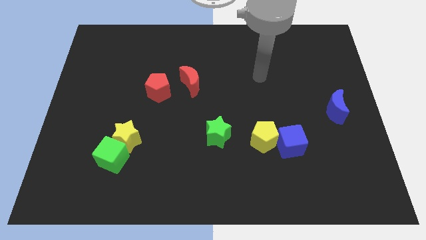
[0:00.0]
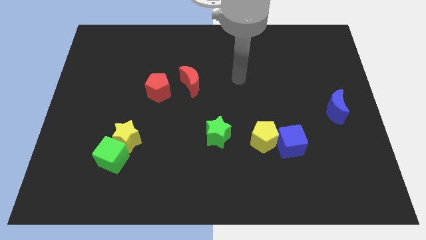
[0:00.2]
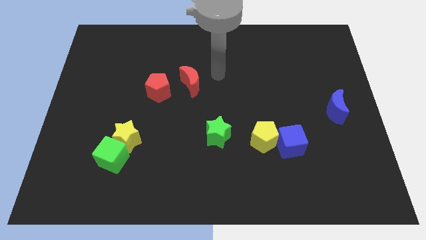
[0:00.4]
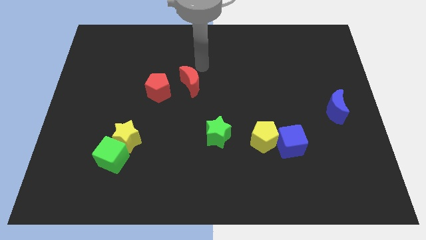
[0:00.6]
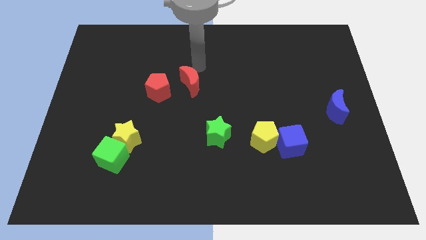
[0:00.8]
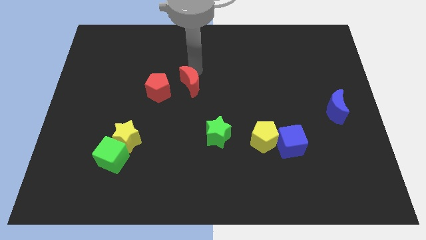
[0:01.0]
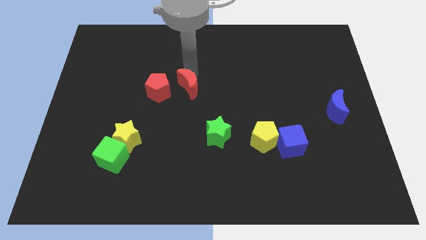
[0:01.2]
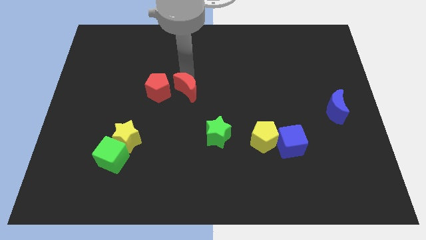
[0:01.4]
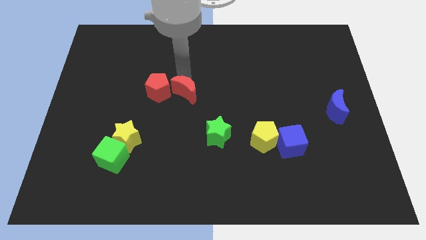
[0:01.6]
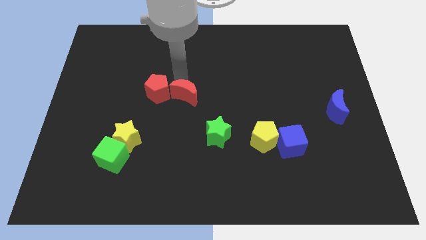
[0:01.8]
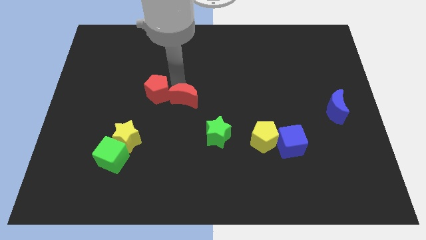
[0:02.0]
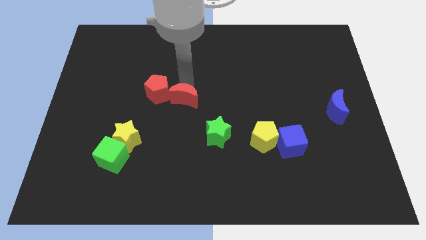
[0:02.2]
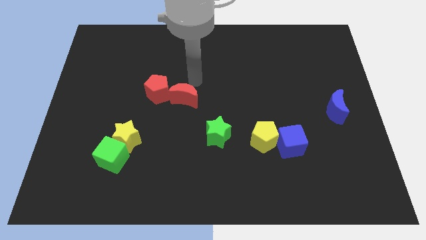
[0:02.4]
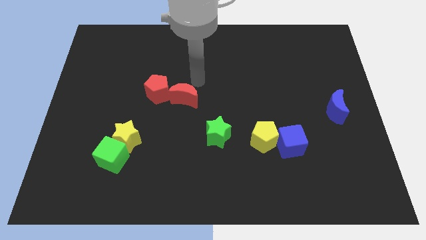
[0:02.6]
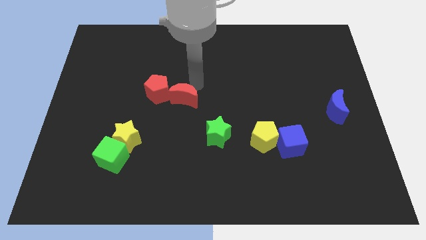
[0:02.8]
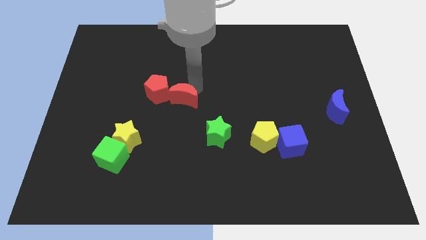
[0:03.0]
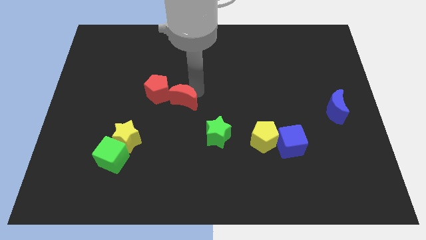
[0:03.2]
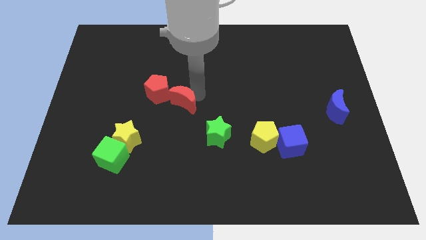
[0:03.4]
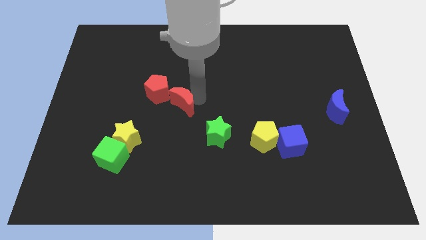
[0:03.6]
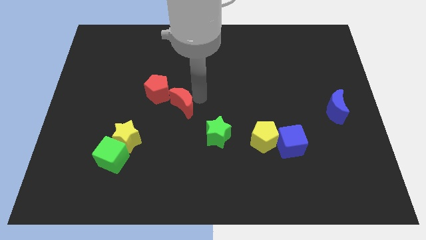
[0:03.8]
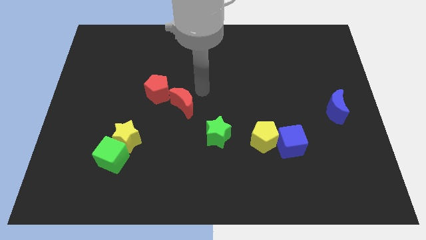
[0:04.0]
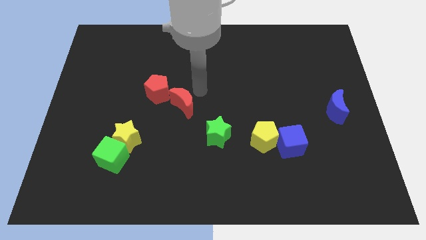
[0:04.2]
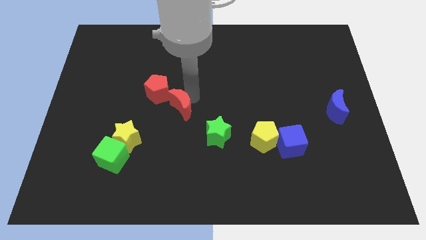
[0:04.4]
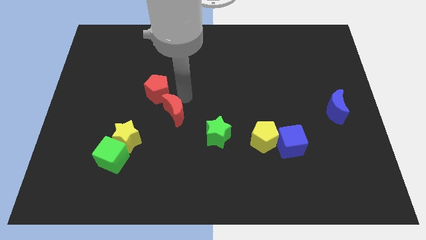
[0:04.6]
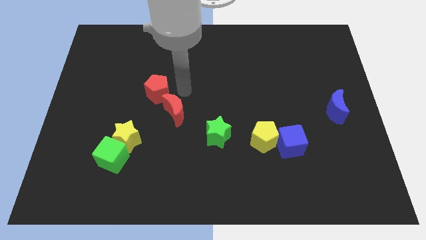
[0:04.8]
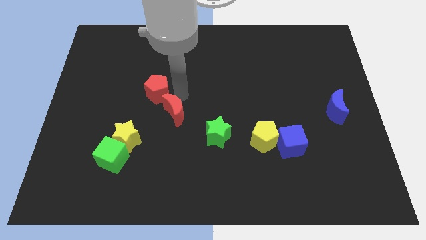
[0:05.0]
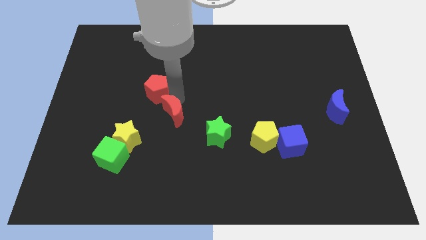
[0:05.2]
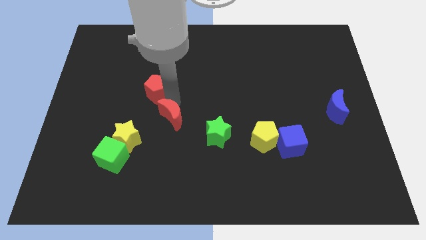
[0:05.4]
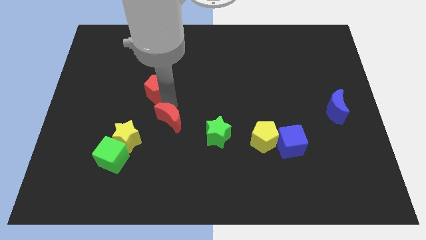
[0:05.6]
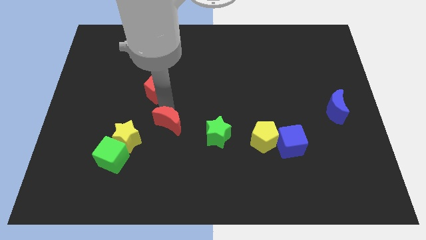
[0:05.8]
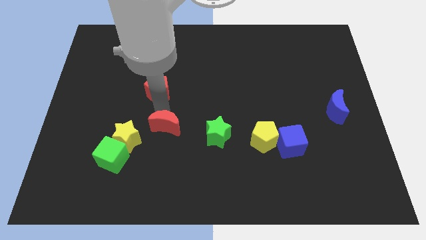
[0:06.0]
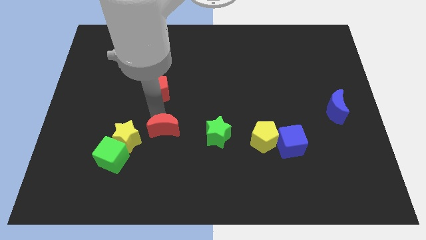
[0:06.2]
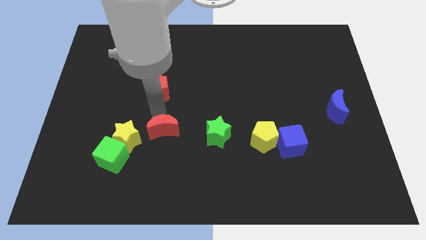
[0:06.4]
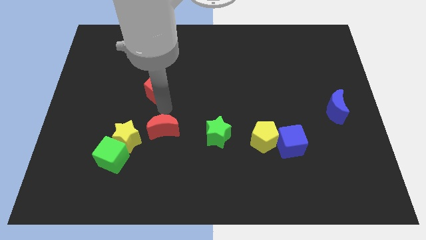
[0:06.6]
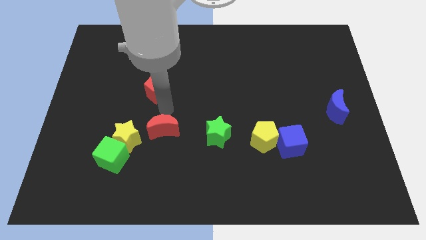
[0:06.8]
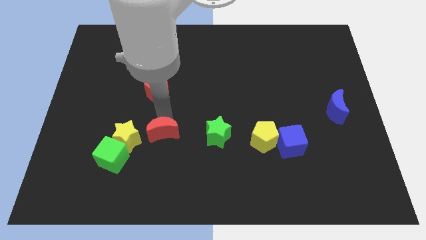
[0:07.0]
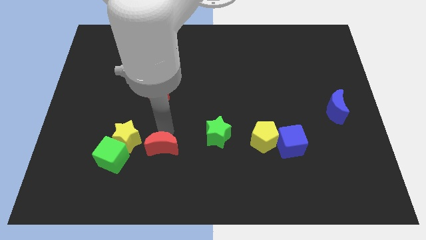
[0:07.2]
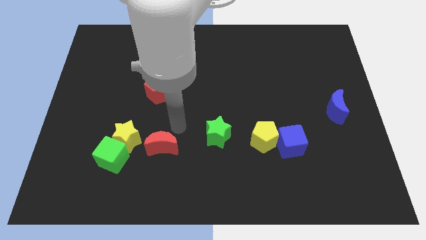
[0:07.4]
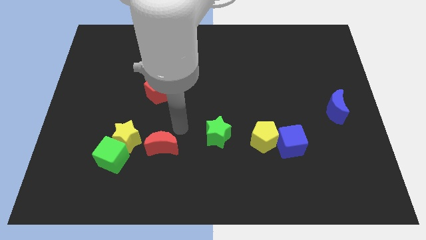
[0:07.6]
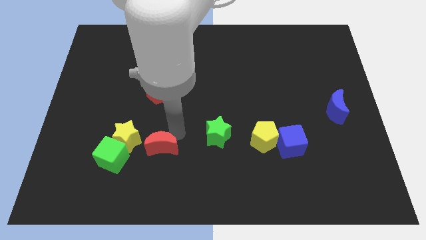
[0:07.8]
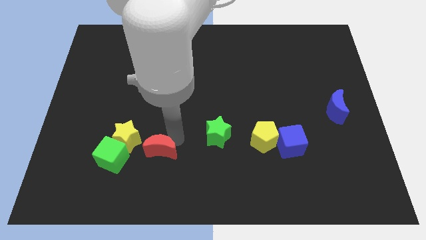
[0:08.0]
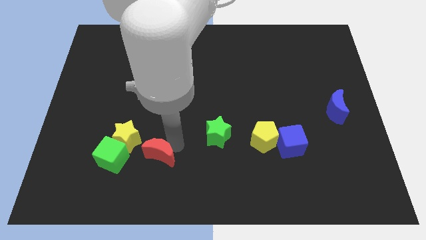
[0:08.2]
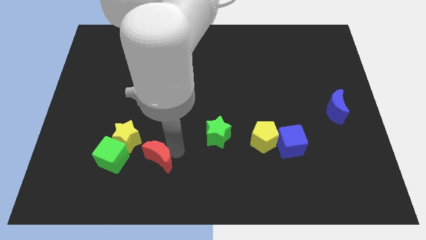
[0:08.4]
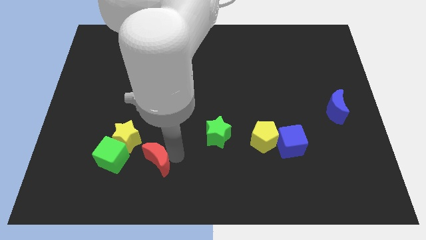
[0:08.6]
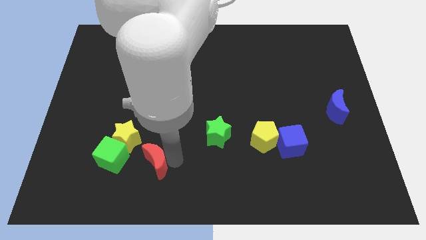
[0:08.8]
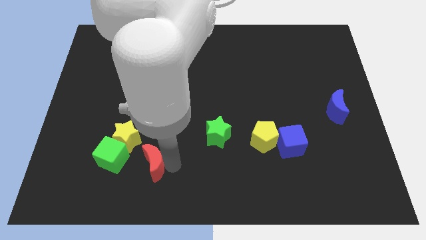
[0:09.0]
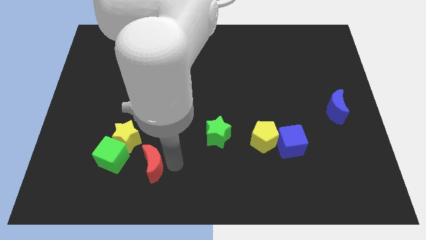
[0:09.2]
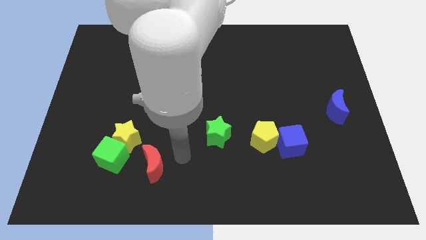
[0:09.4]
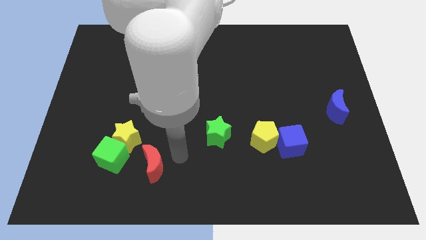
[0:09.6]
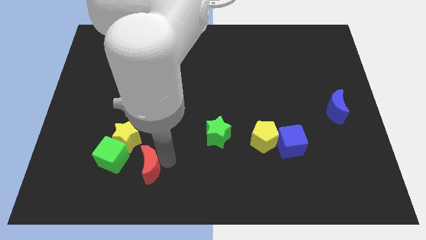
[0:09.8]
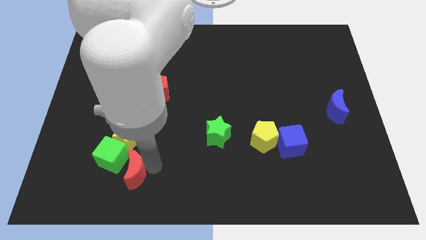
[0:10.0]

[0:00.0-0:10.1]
slide the red moon downwards and to the left

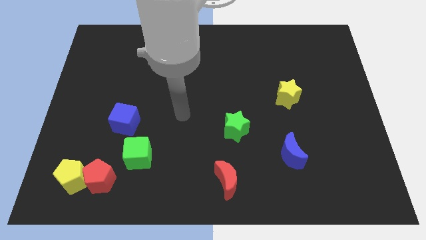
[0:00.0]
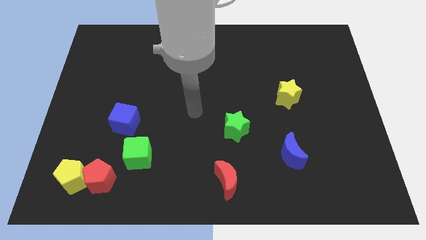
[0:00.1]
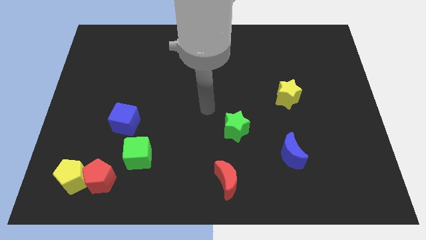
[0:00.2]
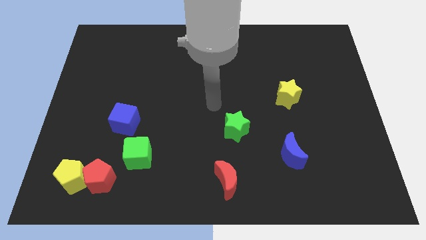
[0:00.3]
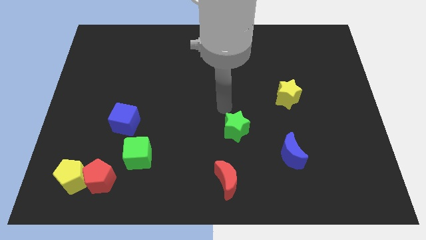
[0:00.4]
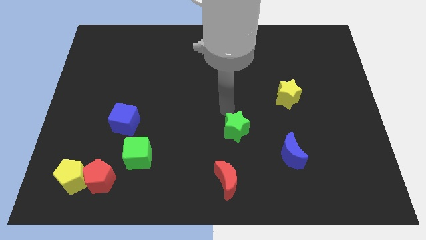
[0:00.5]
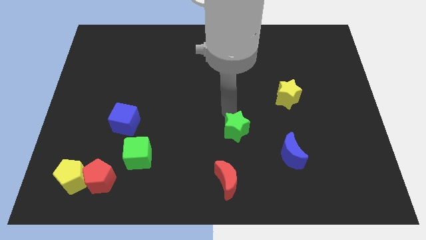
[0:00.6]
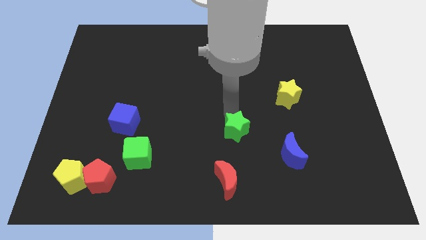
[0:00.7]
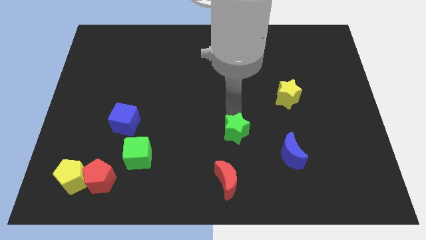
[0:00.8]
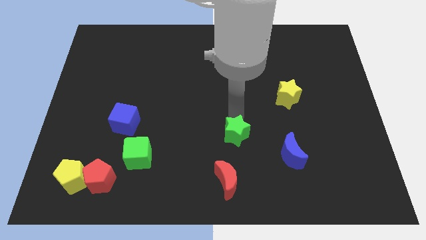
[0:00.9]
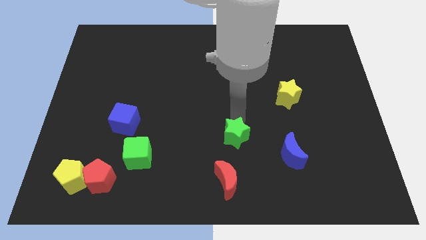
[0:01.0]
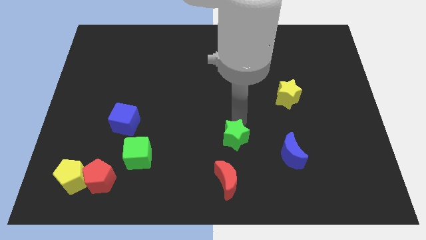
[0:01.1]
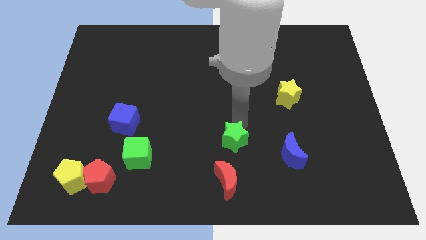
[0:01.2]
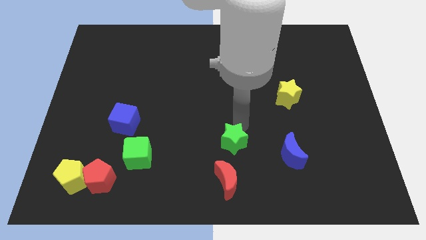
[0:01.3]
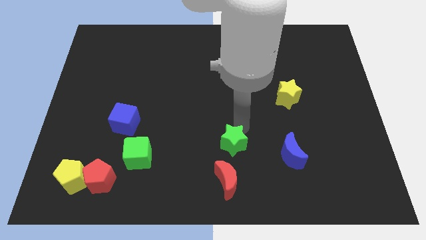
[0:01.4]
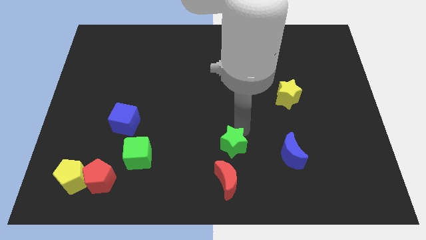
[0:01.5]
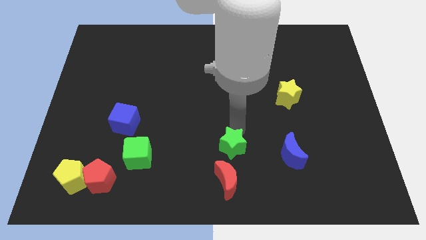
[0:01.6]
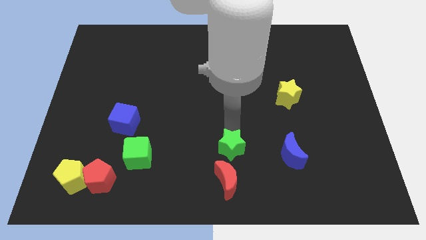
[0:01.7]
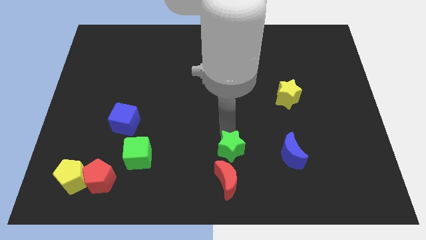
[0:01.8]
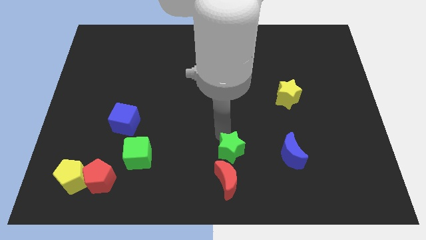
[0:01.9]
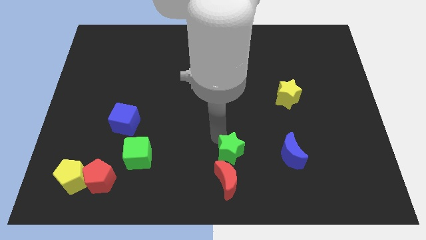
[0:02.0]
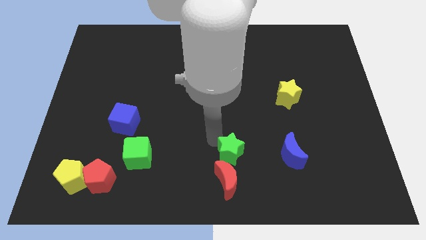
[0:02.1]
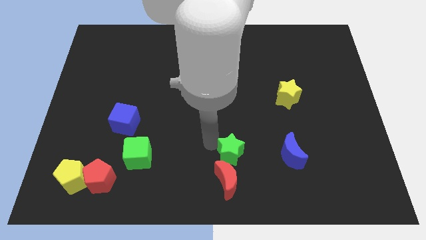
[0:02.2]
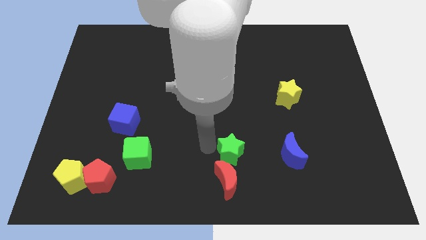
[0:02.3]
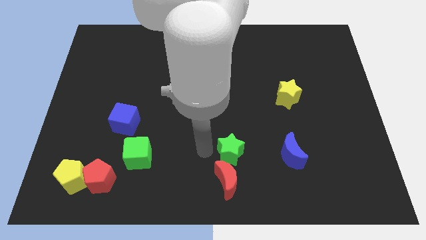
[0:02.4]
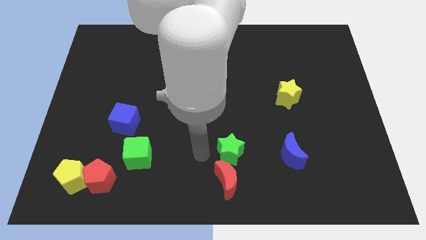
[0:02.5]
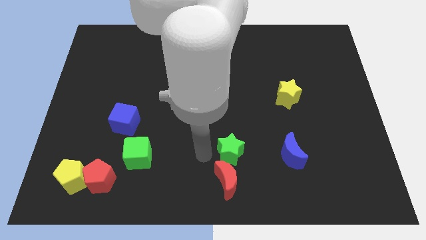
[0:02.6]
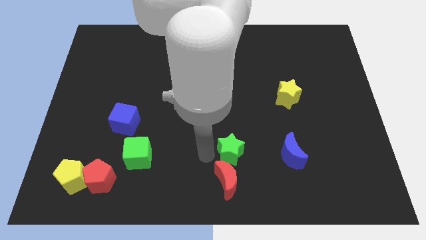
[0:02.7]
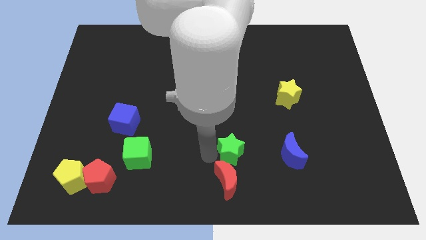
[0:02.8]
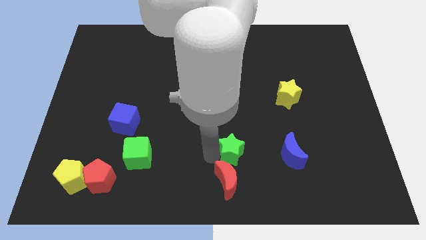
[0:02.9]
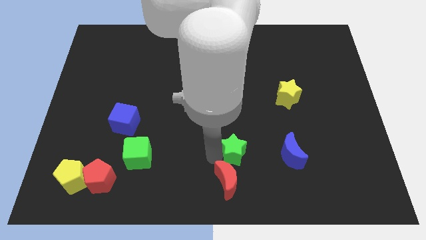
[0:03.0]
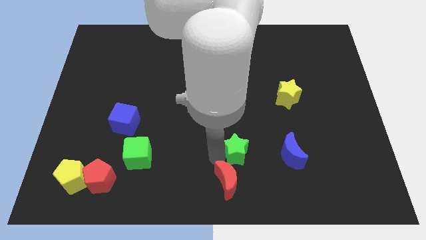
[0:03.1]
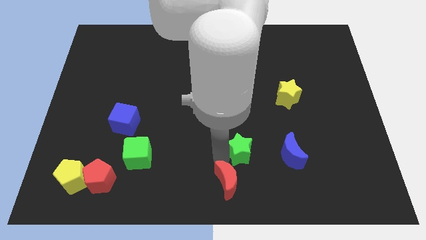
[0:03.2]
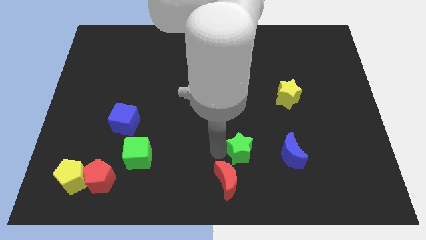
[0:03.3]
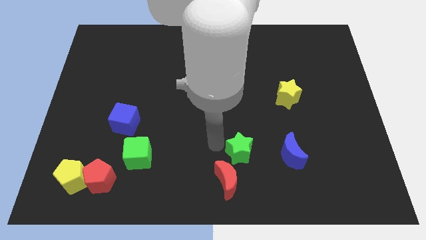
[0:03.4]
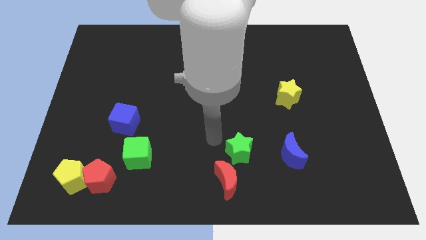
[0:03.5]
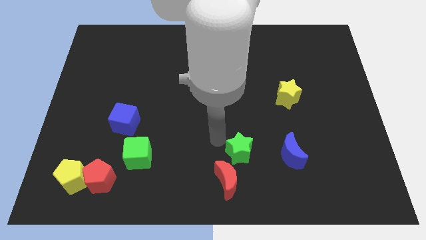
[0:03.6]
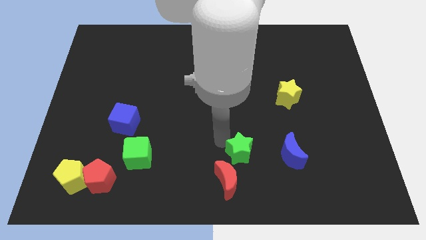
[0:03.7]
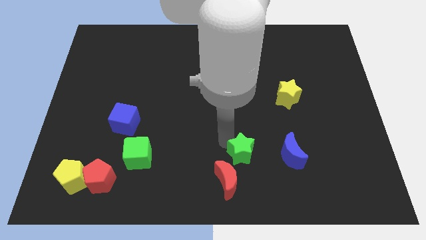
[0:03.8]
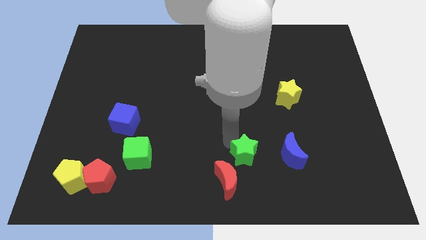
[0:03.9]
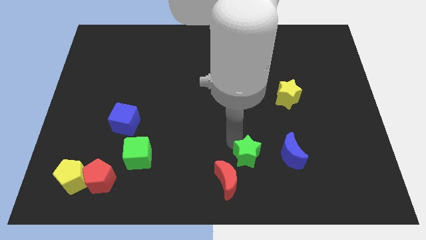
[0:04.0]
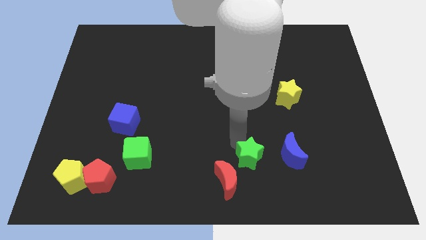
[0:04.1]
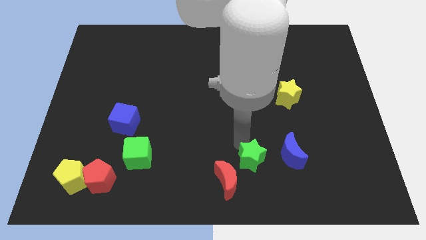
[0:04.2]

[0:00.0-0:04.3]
slightly move the green star diagonally down and right
